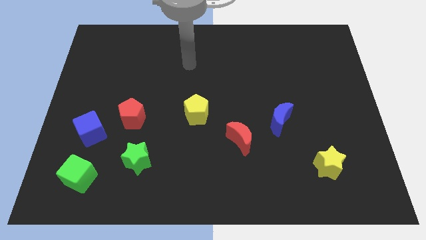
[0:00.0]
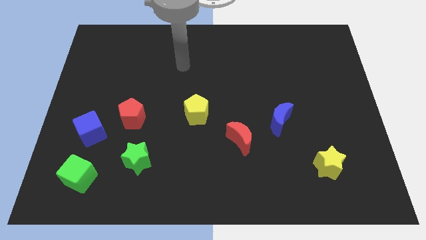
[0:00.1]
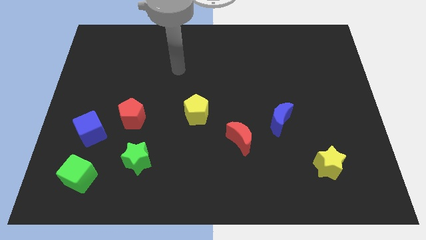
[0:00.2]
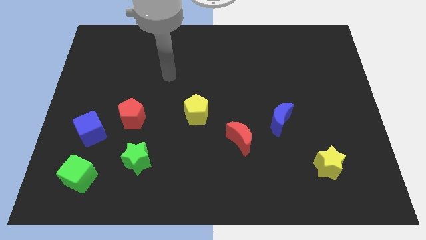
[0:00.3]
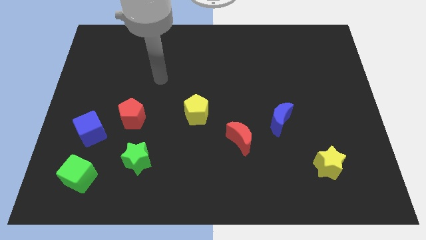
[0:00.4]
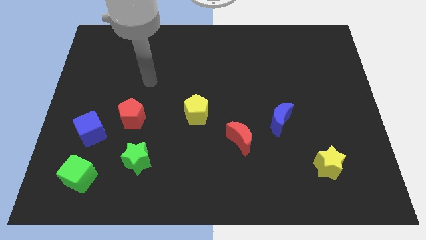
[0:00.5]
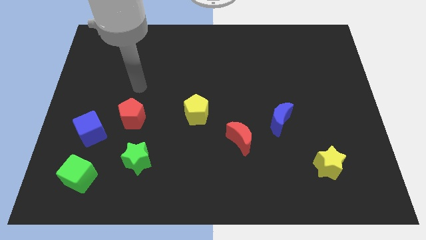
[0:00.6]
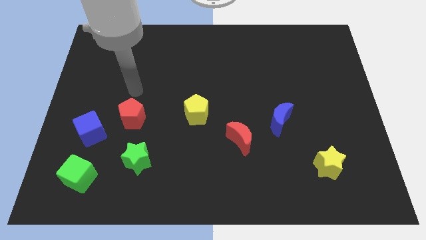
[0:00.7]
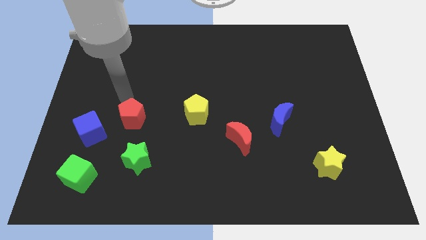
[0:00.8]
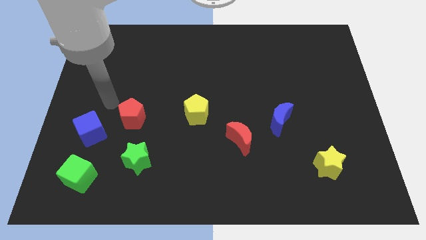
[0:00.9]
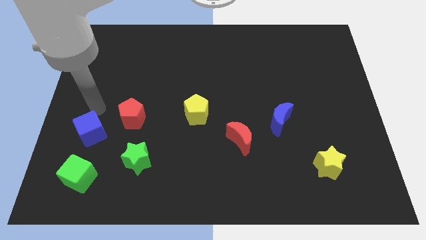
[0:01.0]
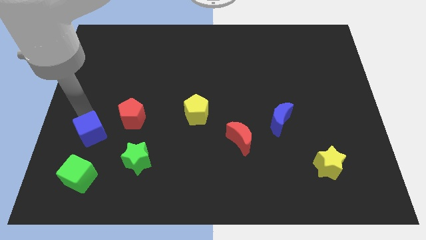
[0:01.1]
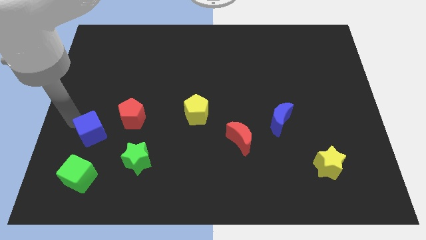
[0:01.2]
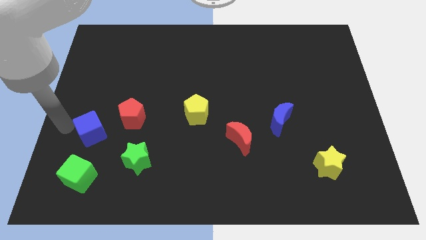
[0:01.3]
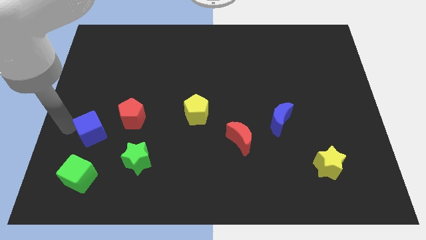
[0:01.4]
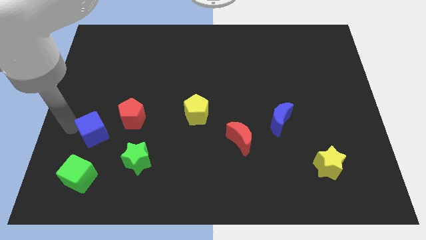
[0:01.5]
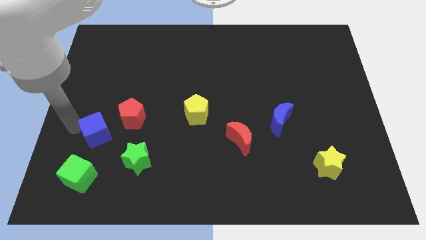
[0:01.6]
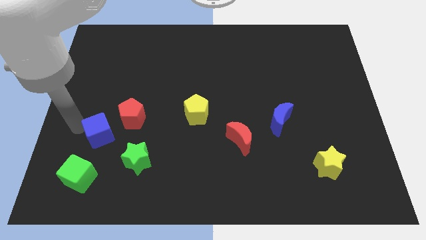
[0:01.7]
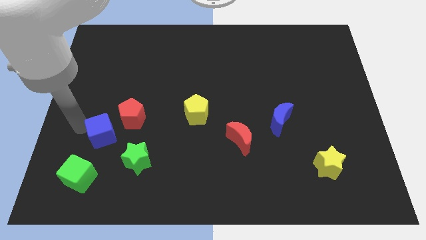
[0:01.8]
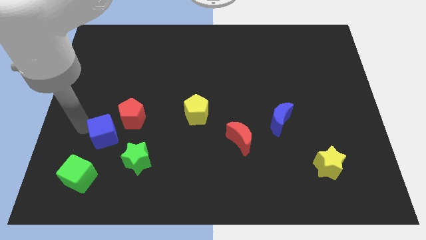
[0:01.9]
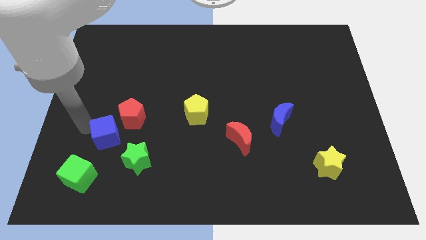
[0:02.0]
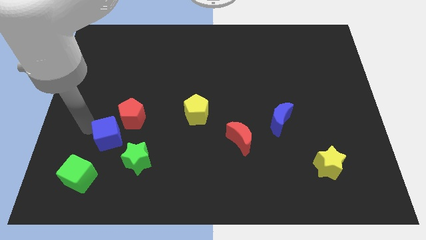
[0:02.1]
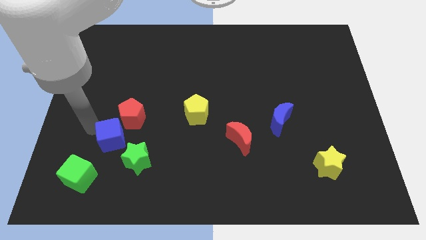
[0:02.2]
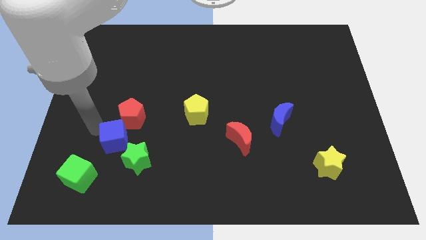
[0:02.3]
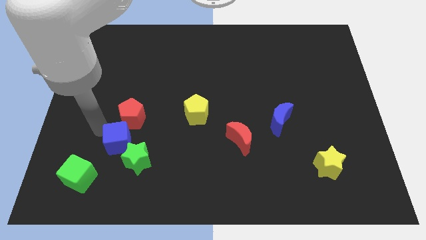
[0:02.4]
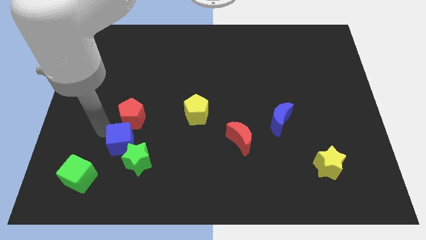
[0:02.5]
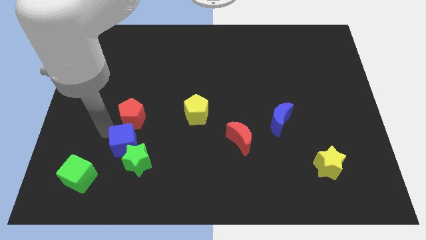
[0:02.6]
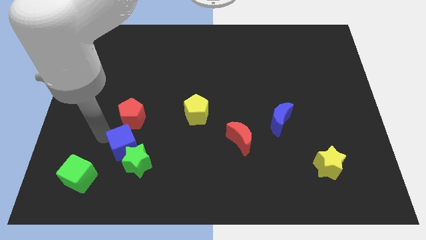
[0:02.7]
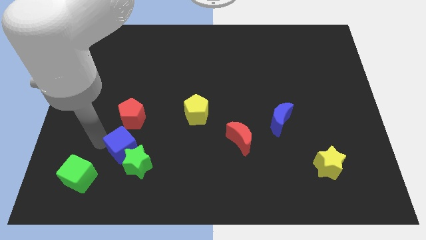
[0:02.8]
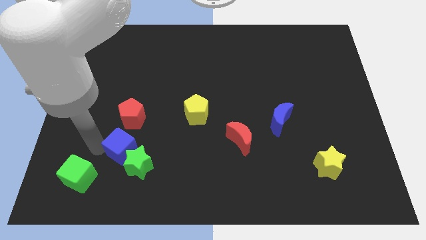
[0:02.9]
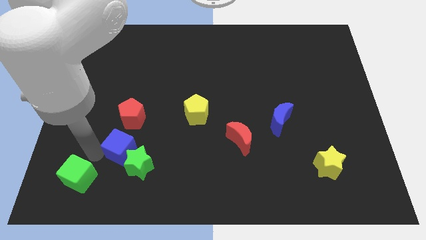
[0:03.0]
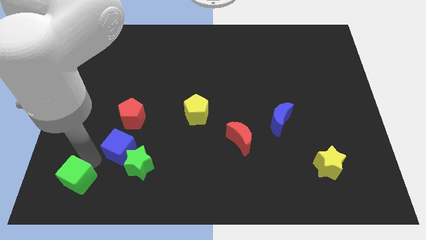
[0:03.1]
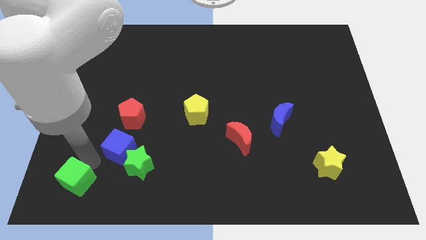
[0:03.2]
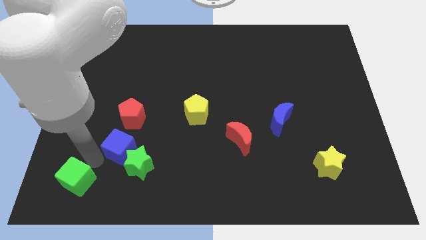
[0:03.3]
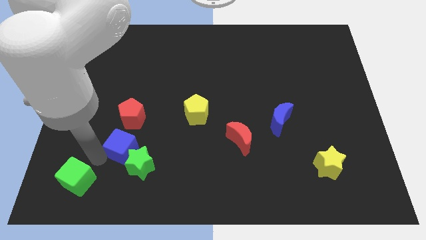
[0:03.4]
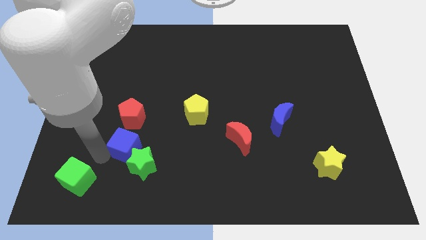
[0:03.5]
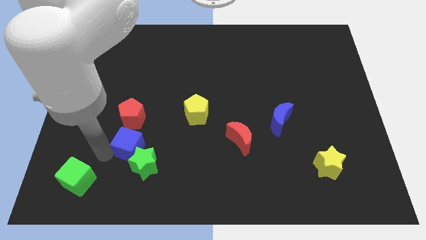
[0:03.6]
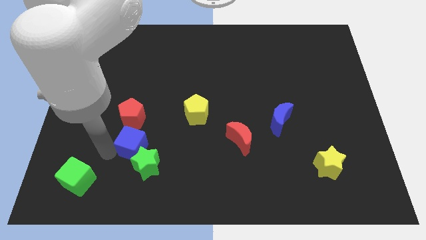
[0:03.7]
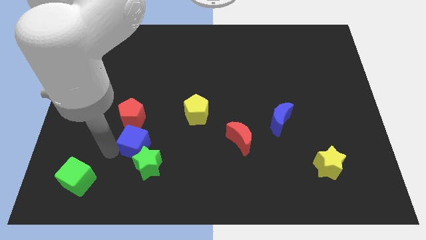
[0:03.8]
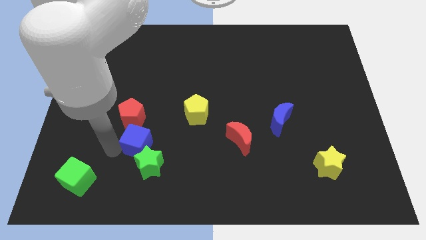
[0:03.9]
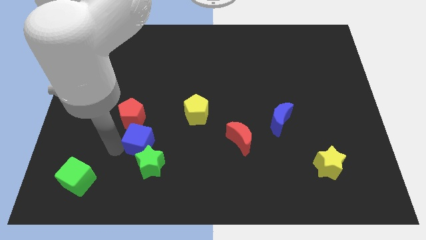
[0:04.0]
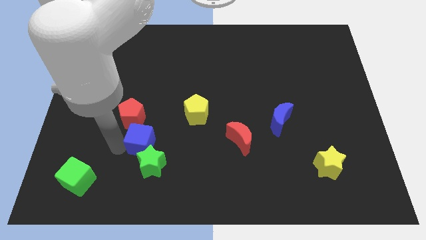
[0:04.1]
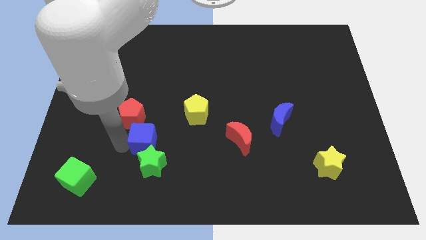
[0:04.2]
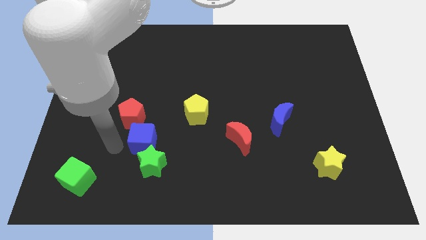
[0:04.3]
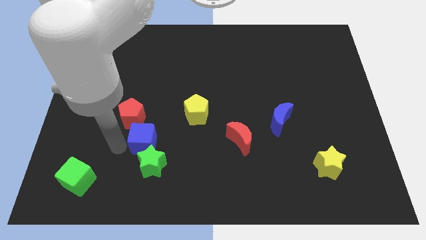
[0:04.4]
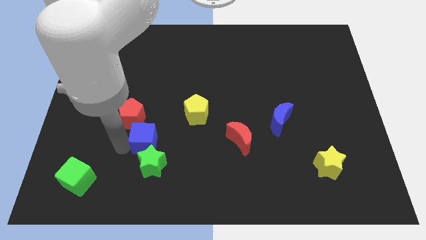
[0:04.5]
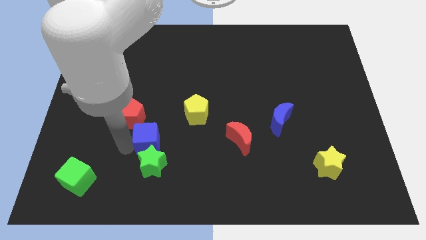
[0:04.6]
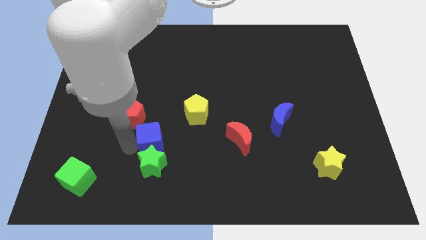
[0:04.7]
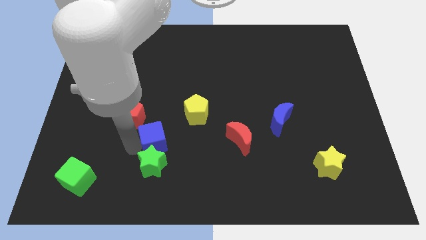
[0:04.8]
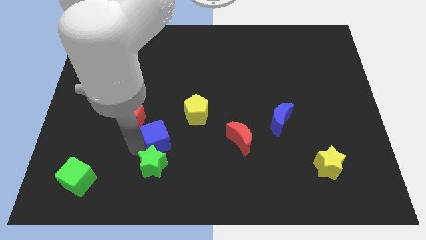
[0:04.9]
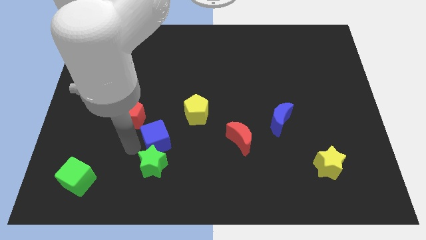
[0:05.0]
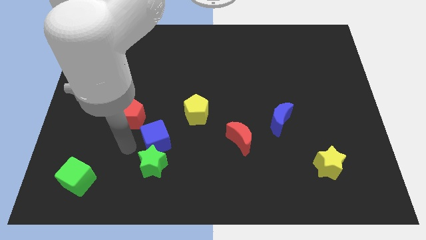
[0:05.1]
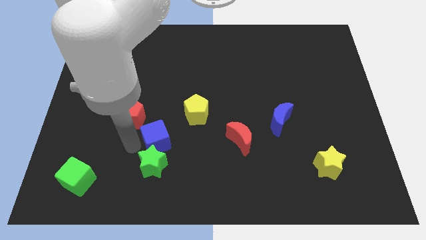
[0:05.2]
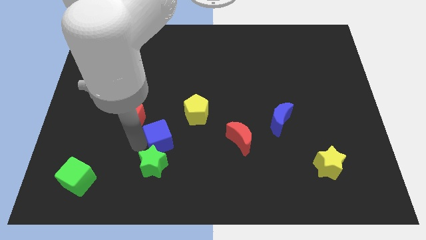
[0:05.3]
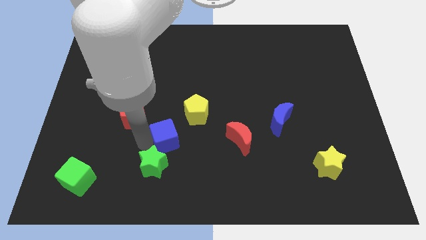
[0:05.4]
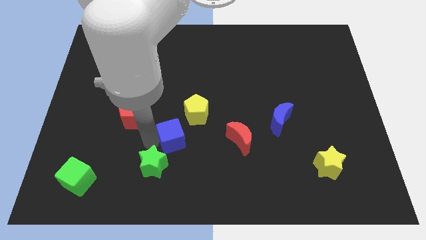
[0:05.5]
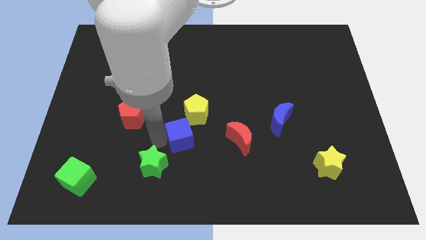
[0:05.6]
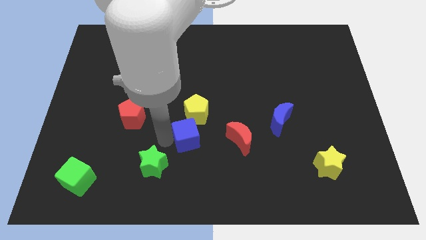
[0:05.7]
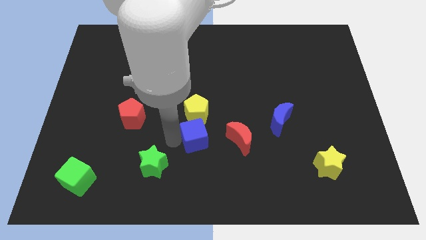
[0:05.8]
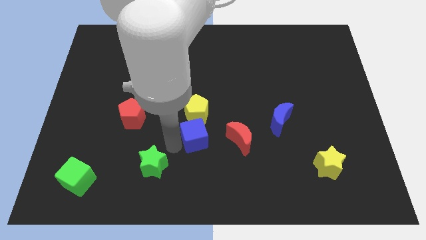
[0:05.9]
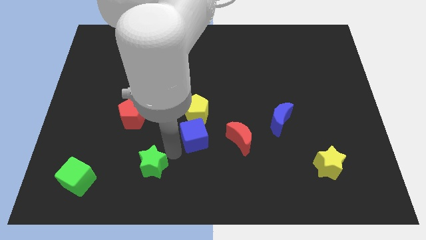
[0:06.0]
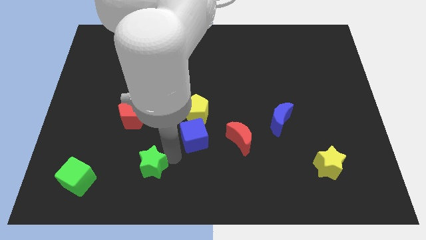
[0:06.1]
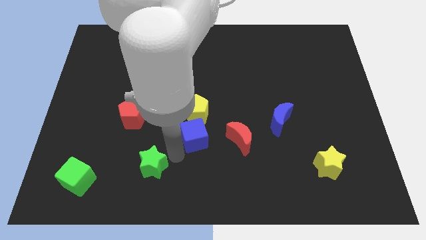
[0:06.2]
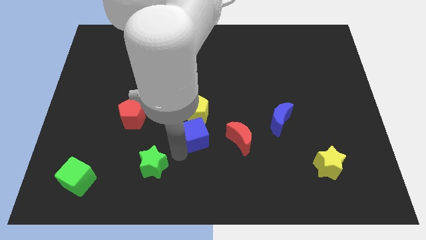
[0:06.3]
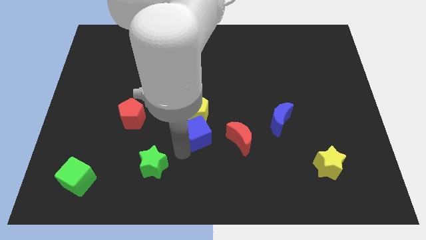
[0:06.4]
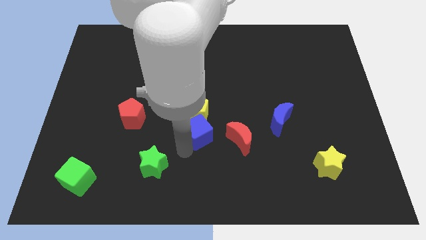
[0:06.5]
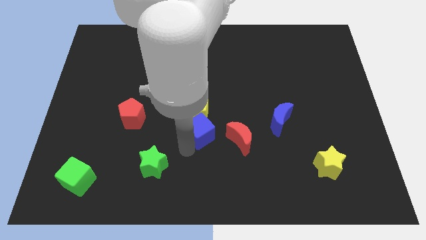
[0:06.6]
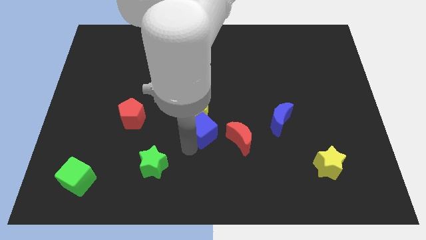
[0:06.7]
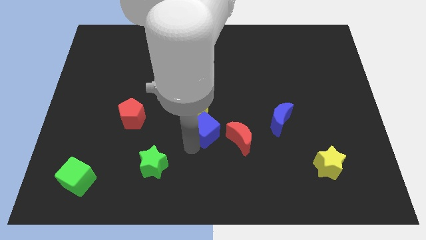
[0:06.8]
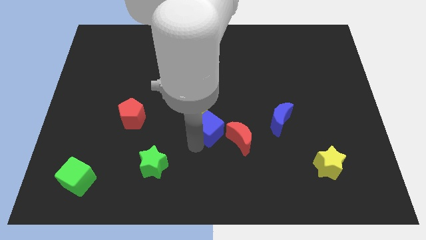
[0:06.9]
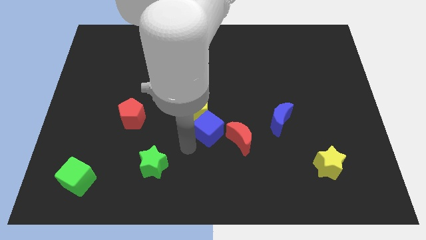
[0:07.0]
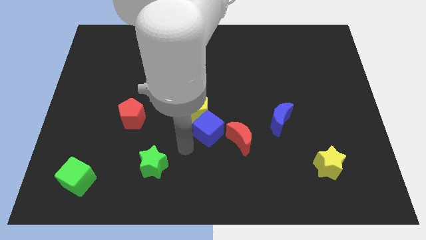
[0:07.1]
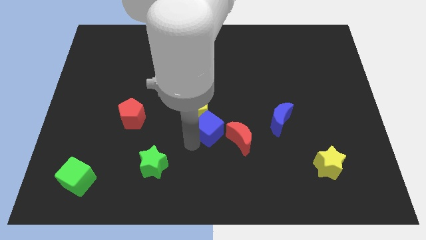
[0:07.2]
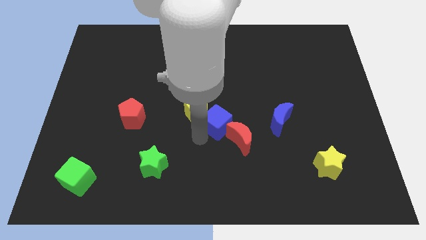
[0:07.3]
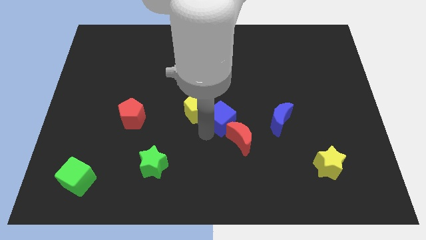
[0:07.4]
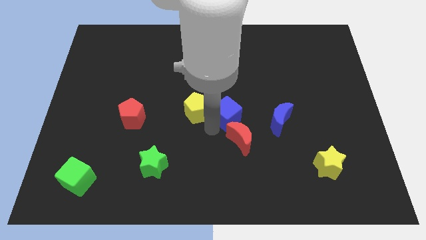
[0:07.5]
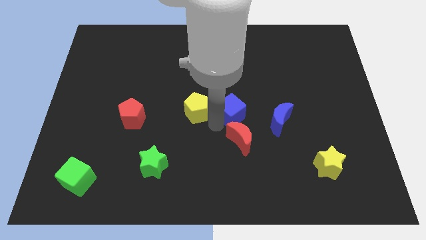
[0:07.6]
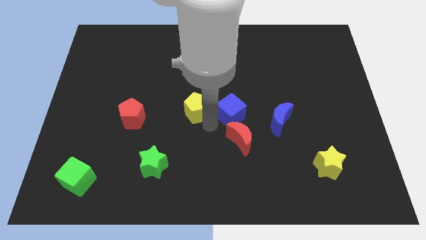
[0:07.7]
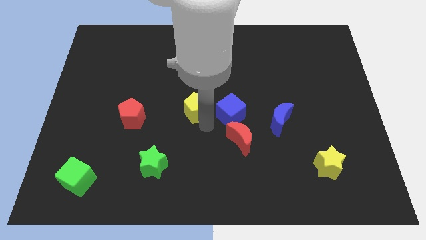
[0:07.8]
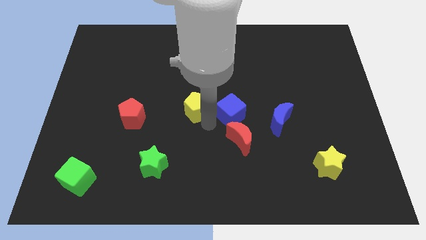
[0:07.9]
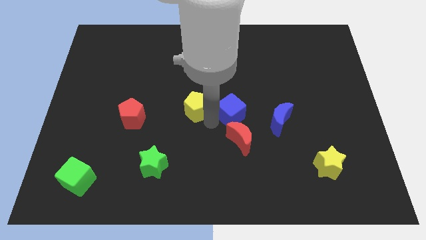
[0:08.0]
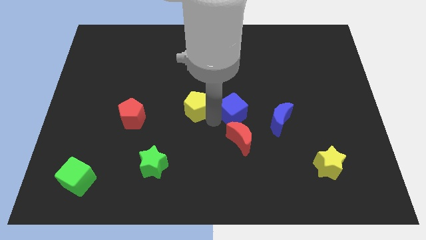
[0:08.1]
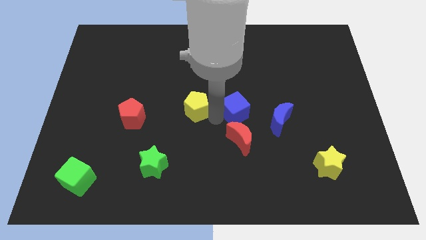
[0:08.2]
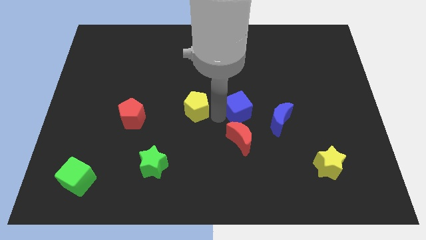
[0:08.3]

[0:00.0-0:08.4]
put the blue cube to the top left side of the blue moon
